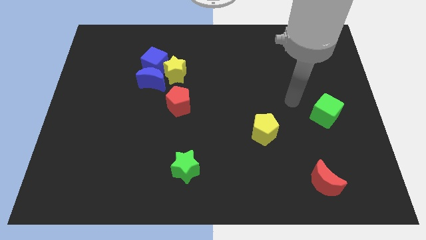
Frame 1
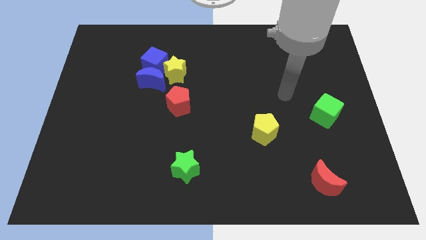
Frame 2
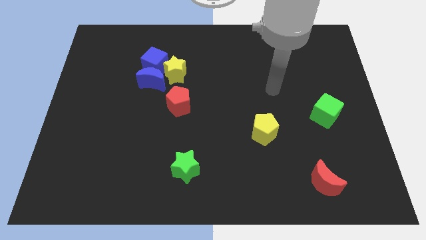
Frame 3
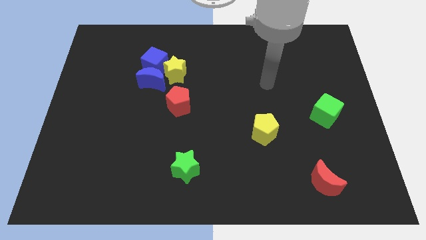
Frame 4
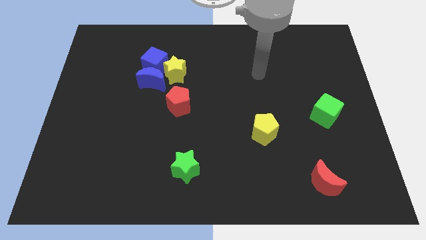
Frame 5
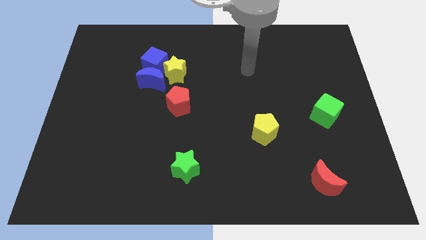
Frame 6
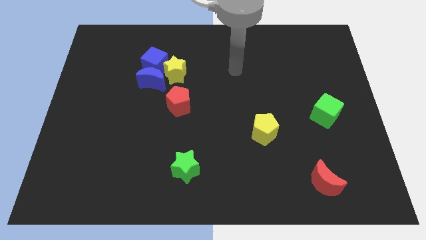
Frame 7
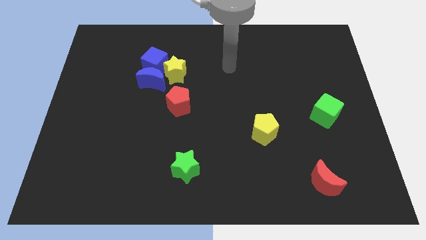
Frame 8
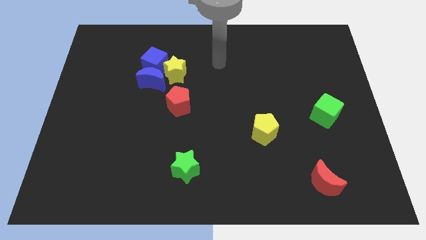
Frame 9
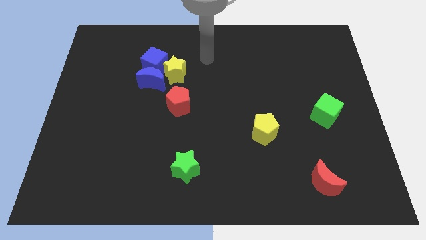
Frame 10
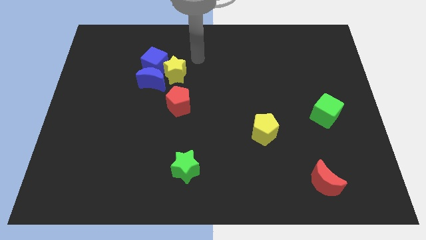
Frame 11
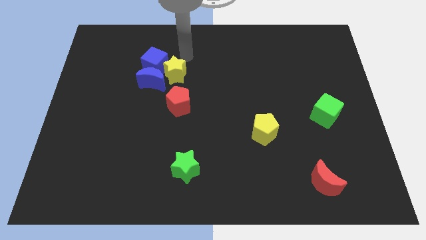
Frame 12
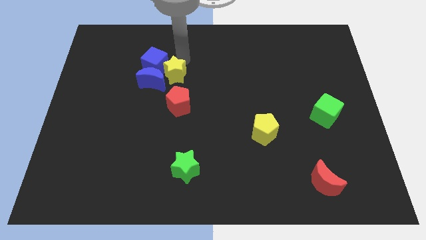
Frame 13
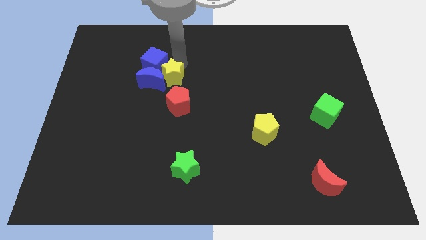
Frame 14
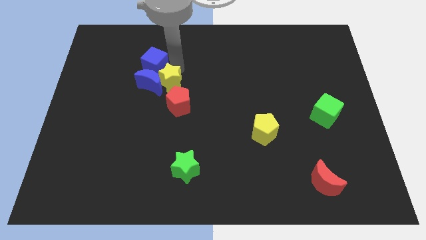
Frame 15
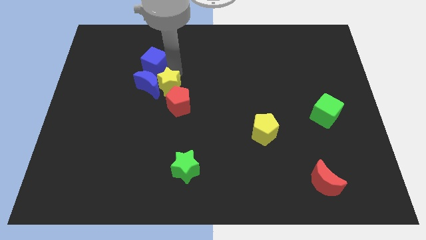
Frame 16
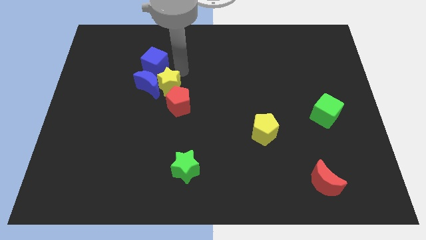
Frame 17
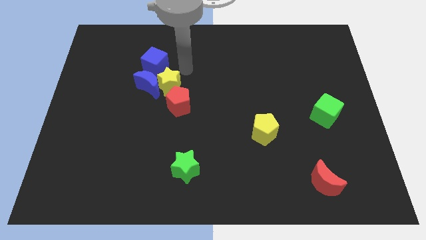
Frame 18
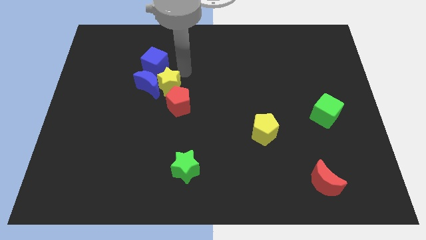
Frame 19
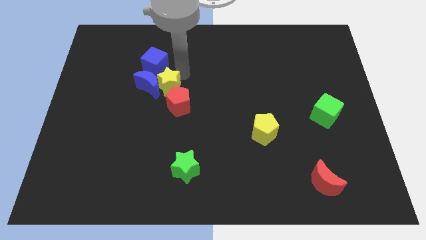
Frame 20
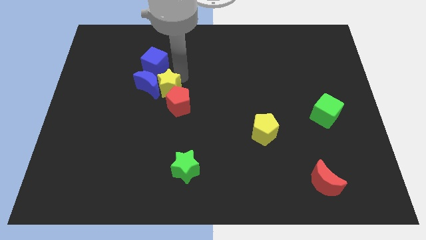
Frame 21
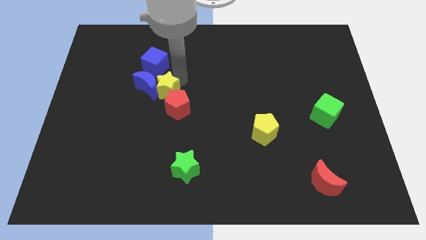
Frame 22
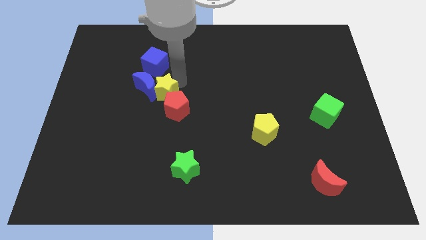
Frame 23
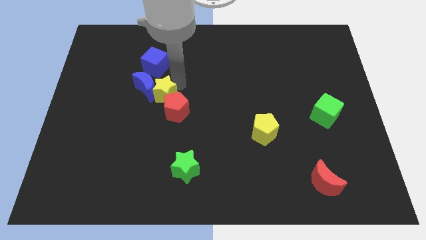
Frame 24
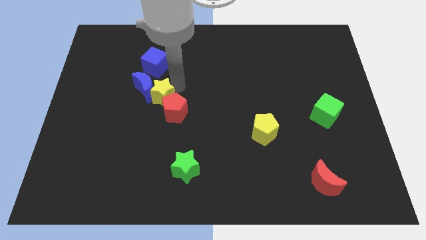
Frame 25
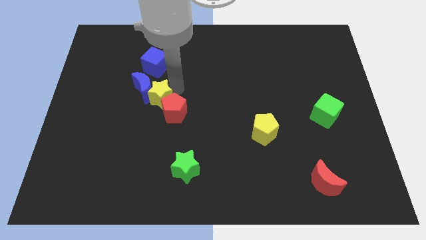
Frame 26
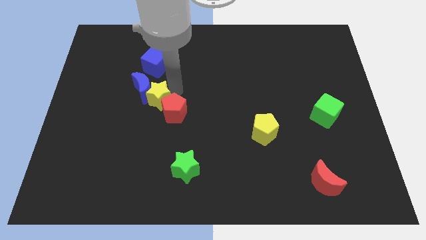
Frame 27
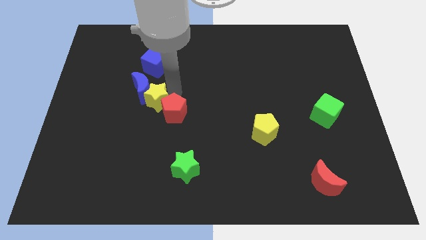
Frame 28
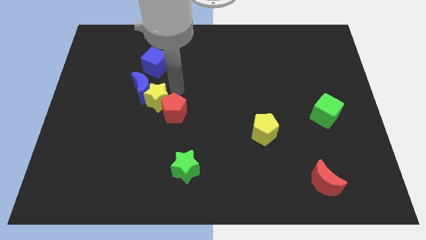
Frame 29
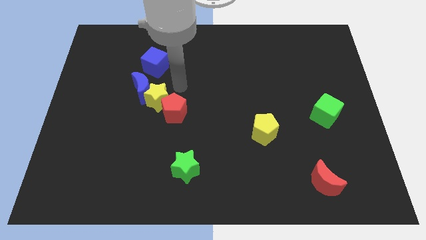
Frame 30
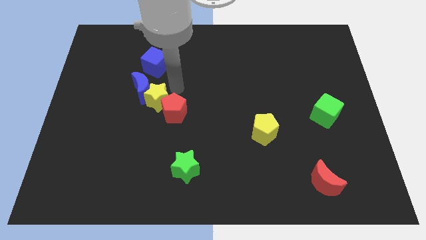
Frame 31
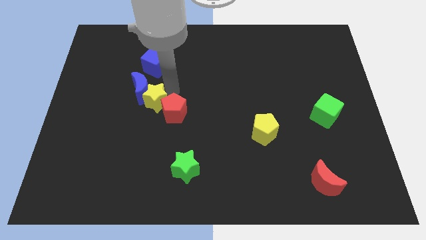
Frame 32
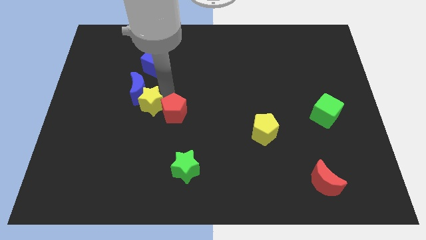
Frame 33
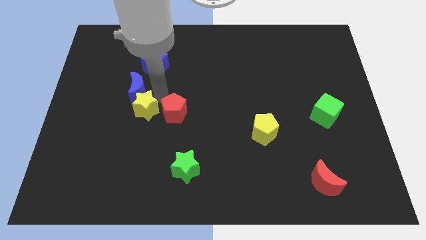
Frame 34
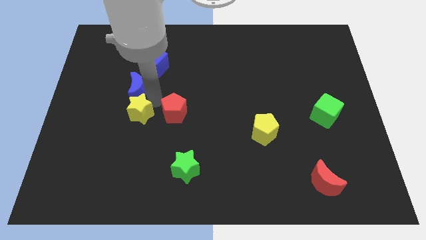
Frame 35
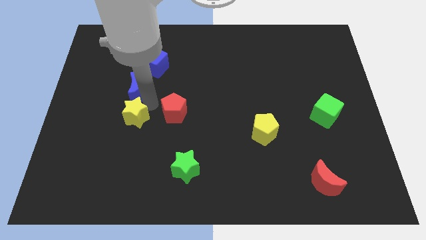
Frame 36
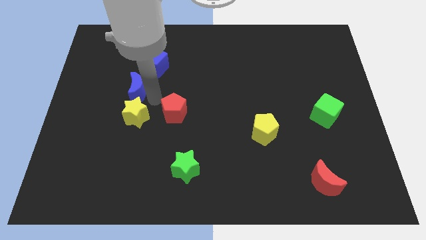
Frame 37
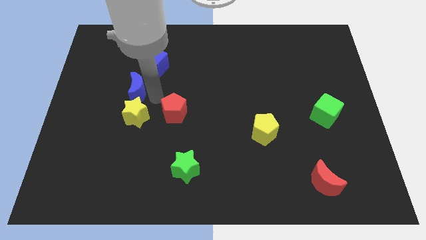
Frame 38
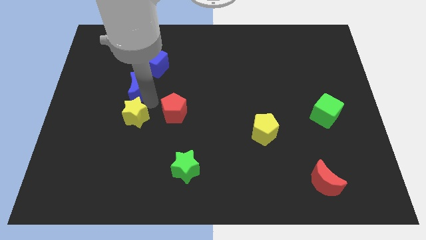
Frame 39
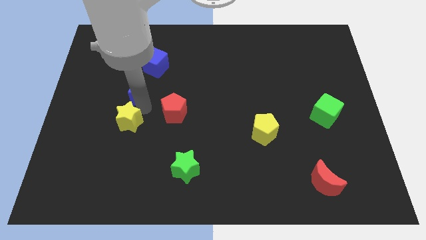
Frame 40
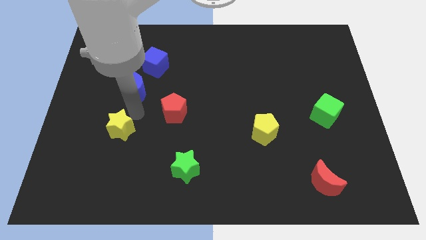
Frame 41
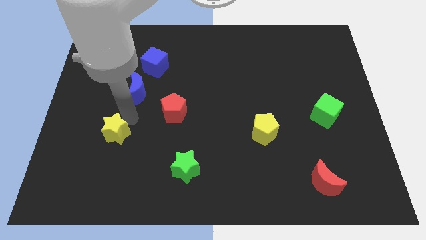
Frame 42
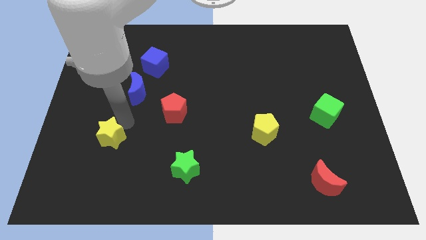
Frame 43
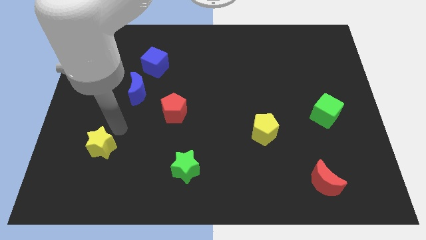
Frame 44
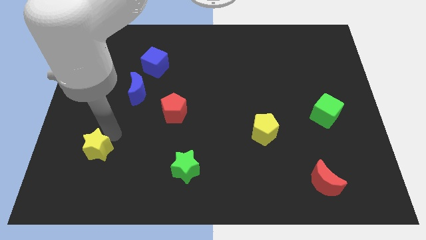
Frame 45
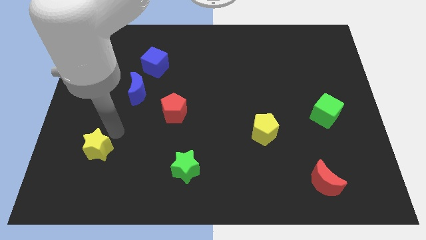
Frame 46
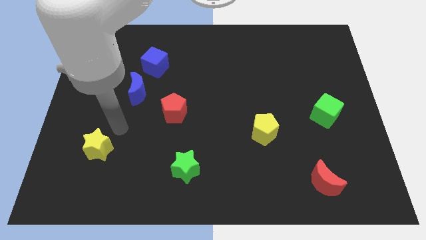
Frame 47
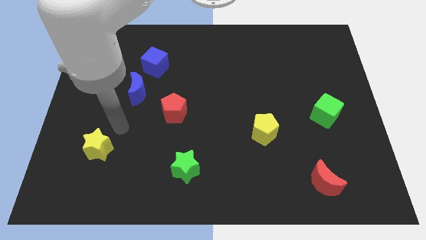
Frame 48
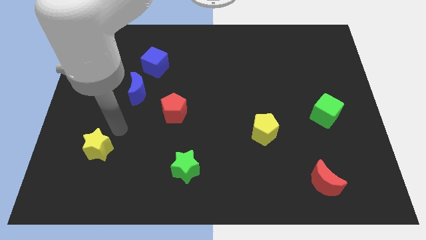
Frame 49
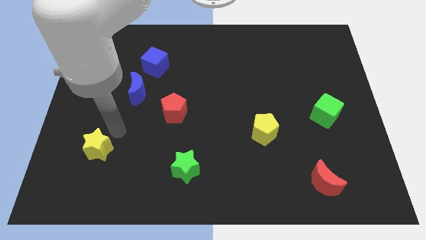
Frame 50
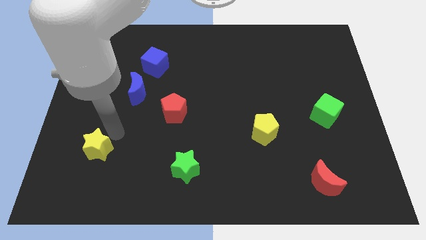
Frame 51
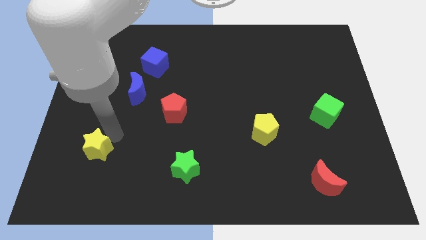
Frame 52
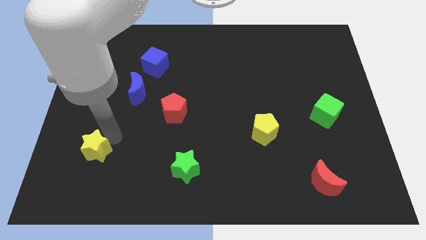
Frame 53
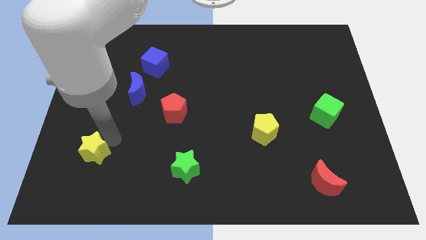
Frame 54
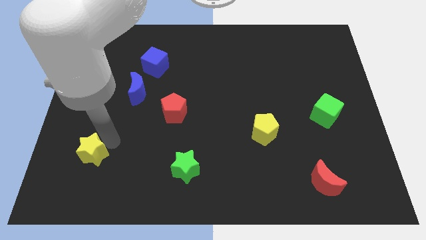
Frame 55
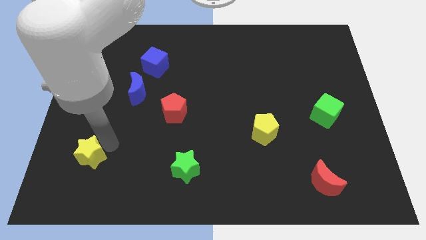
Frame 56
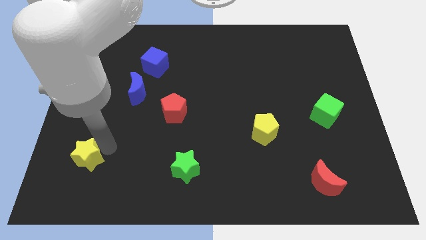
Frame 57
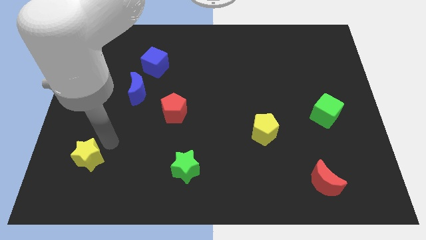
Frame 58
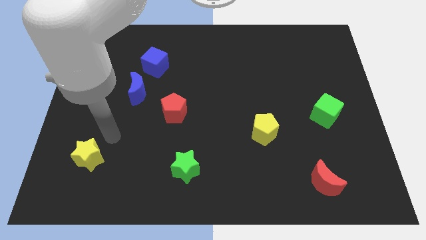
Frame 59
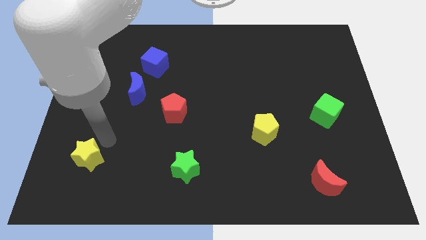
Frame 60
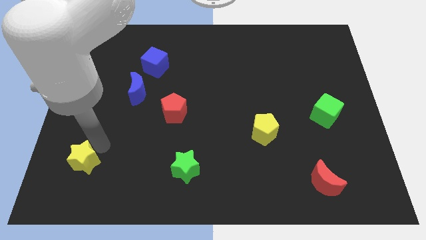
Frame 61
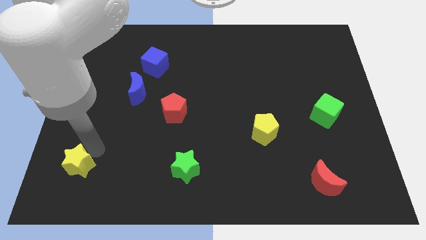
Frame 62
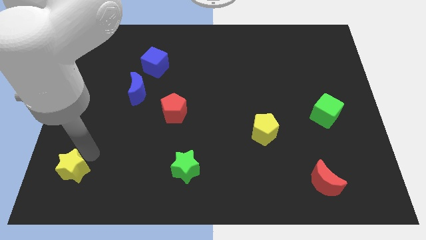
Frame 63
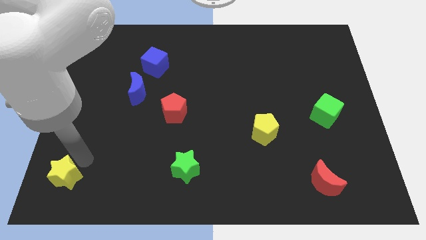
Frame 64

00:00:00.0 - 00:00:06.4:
put the yellow star to the bottom left corner
